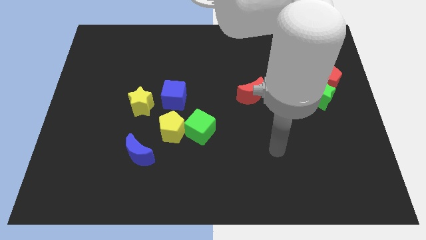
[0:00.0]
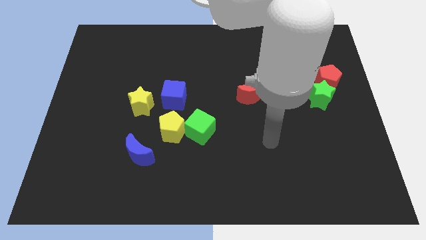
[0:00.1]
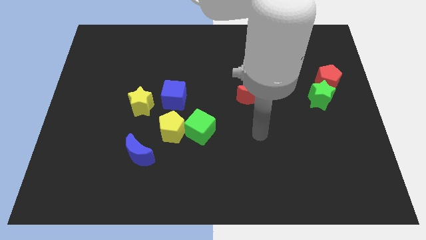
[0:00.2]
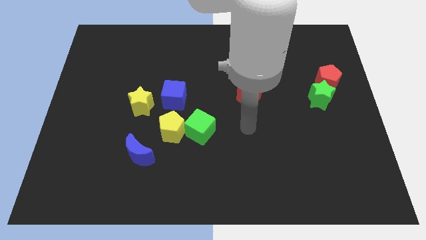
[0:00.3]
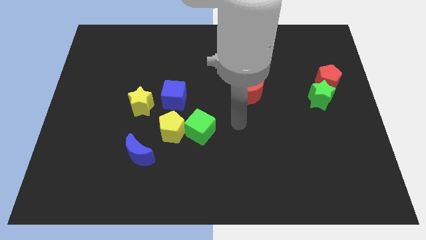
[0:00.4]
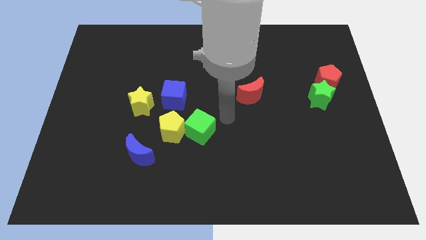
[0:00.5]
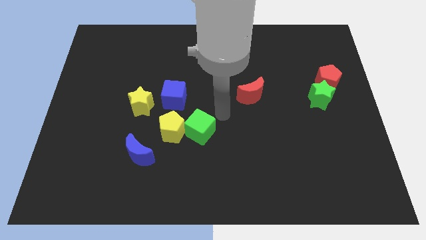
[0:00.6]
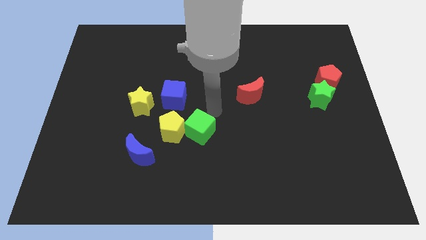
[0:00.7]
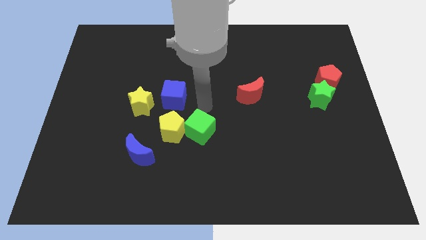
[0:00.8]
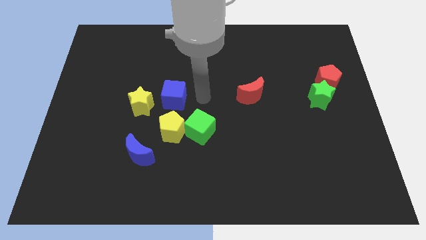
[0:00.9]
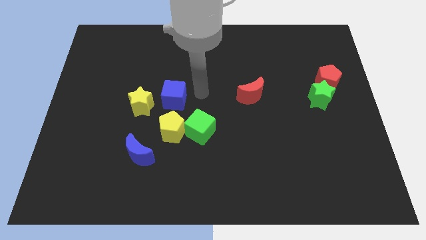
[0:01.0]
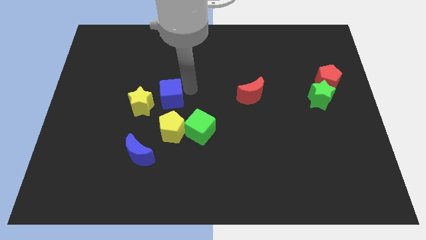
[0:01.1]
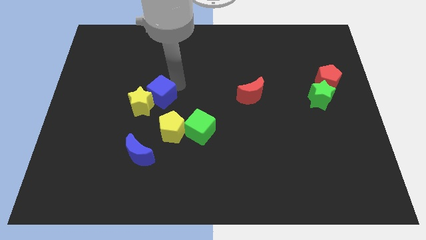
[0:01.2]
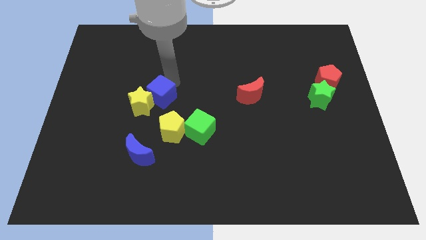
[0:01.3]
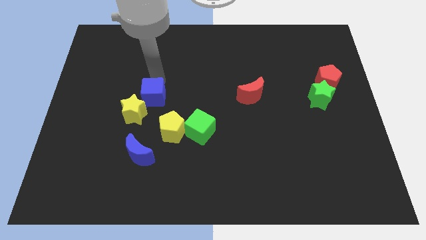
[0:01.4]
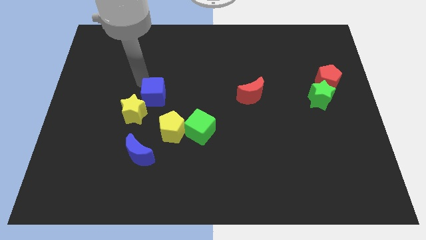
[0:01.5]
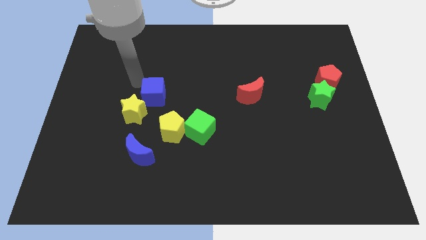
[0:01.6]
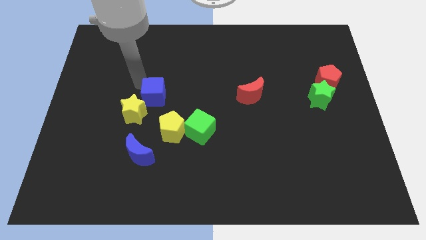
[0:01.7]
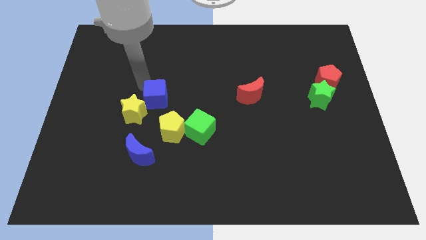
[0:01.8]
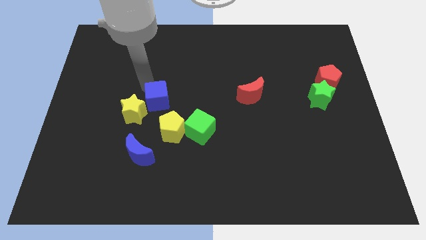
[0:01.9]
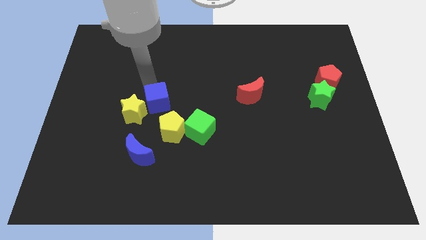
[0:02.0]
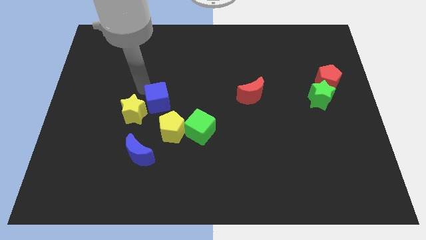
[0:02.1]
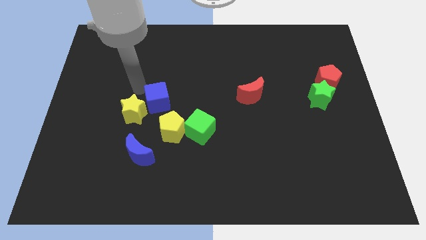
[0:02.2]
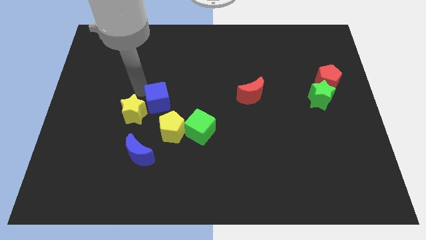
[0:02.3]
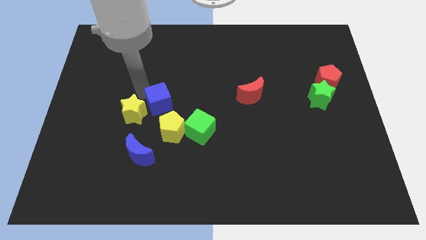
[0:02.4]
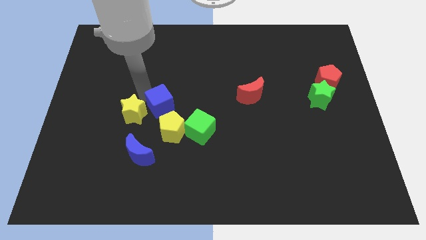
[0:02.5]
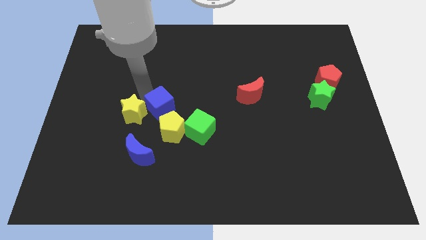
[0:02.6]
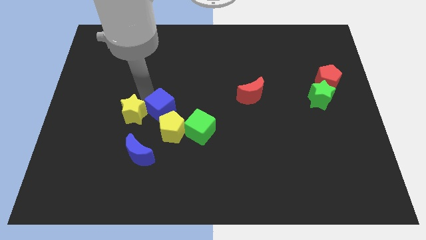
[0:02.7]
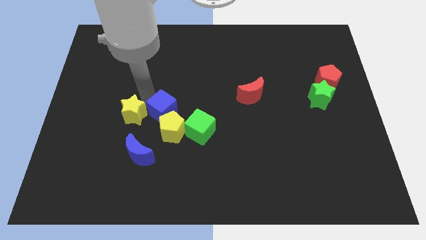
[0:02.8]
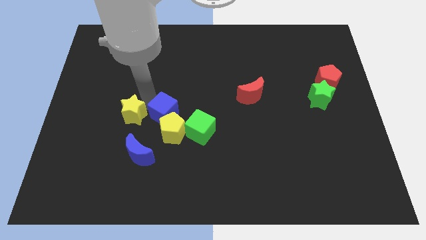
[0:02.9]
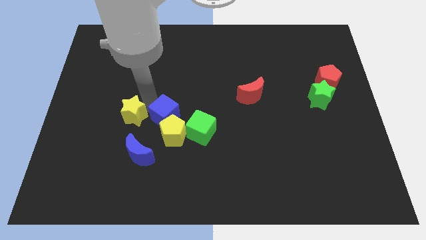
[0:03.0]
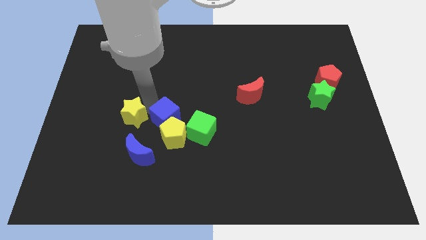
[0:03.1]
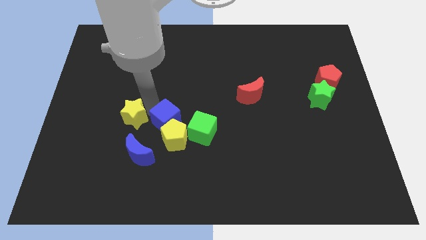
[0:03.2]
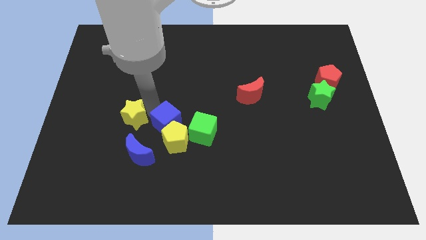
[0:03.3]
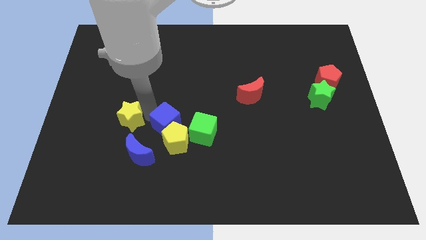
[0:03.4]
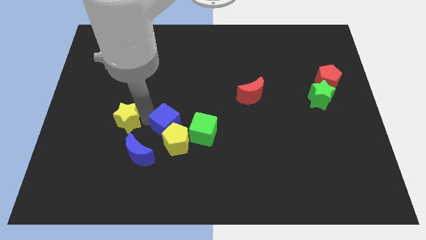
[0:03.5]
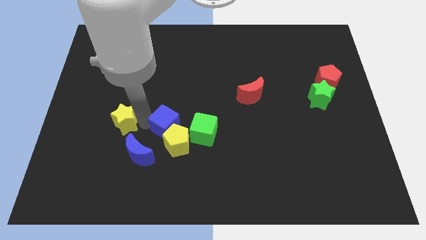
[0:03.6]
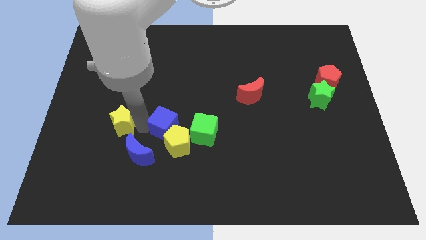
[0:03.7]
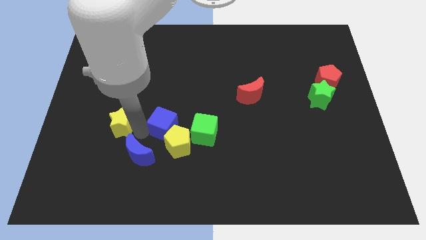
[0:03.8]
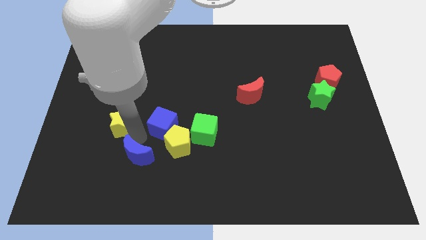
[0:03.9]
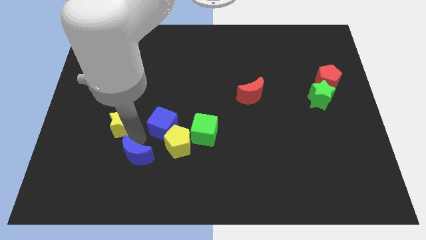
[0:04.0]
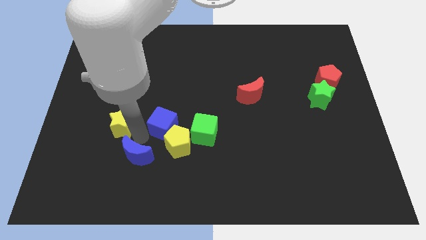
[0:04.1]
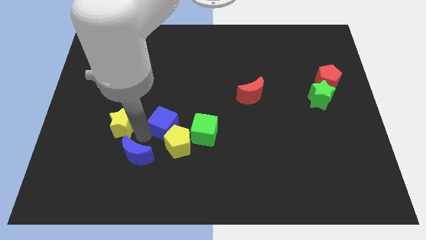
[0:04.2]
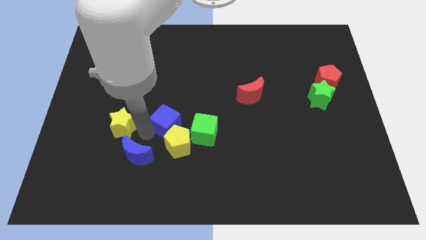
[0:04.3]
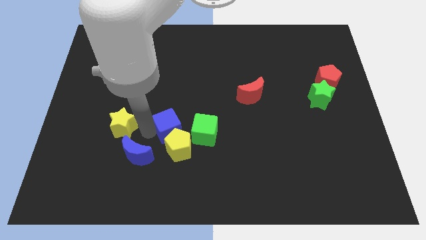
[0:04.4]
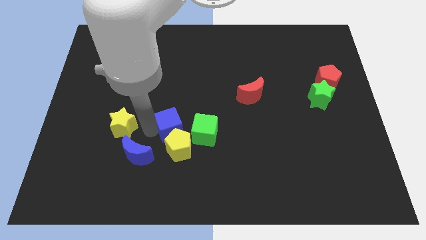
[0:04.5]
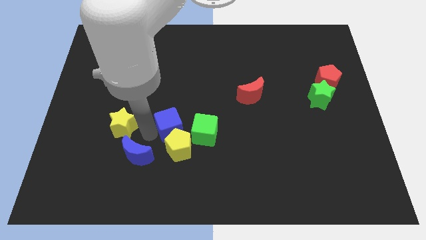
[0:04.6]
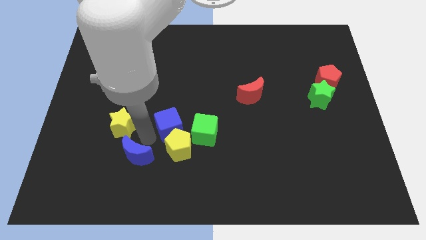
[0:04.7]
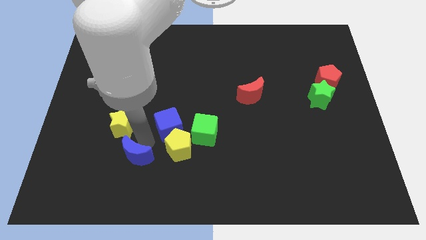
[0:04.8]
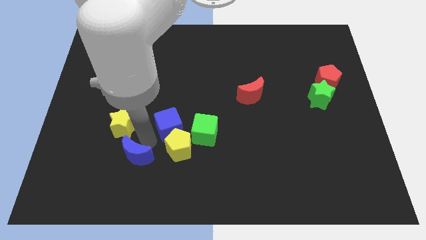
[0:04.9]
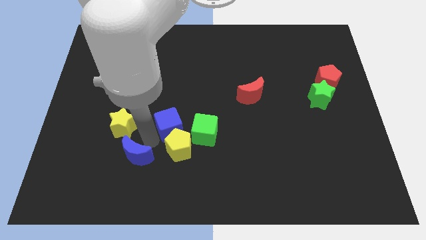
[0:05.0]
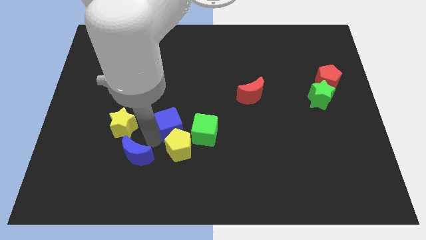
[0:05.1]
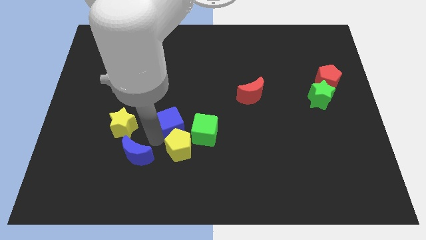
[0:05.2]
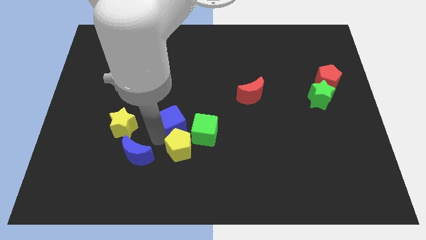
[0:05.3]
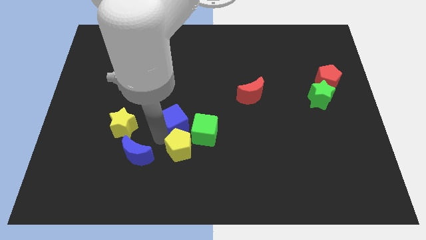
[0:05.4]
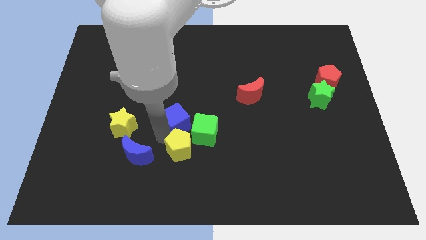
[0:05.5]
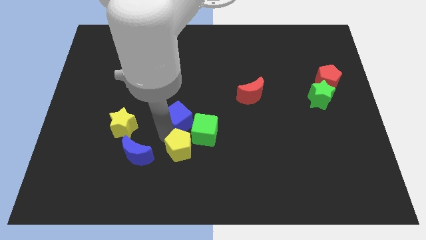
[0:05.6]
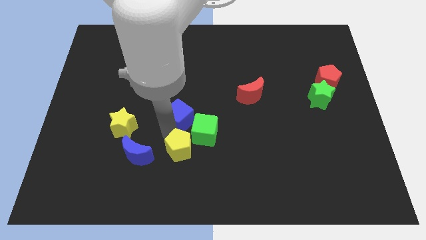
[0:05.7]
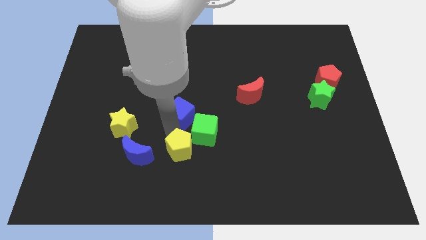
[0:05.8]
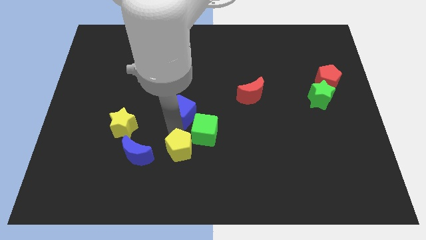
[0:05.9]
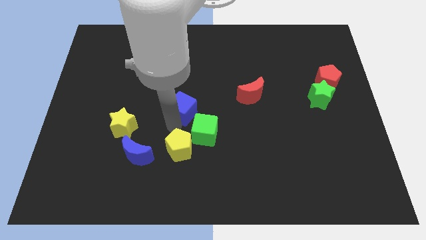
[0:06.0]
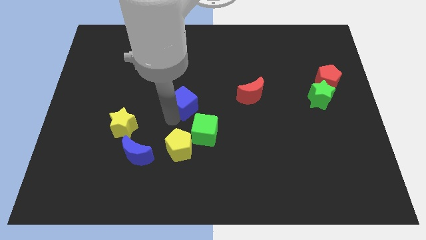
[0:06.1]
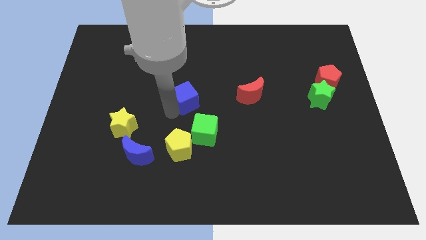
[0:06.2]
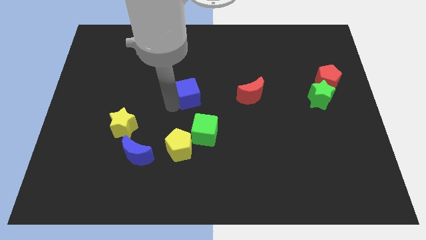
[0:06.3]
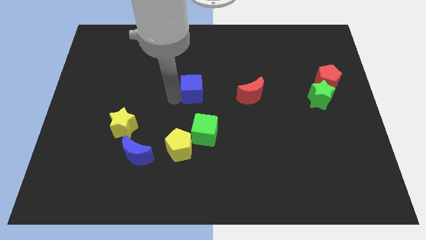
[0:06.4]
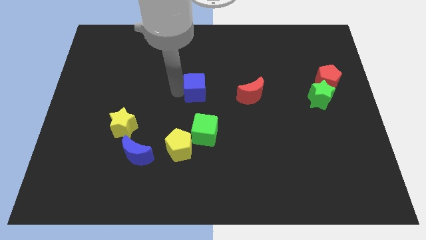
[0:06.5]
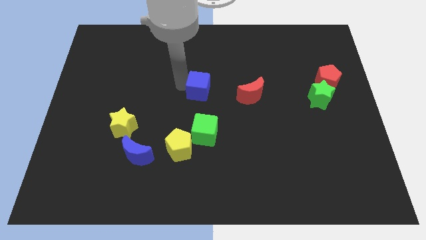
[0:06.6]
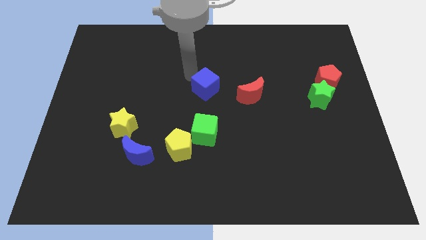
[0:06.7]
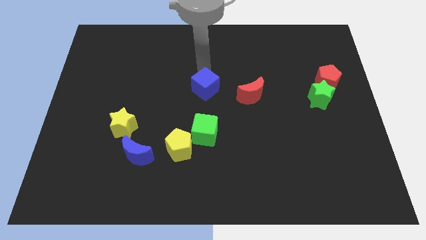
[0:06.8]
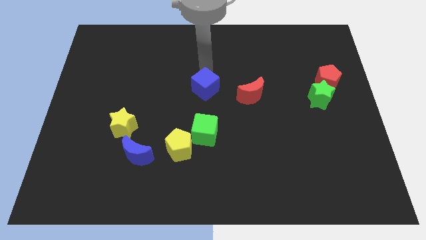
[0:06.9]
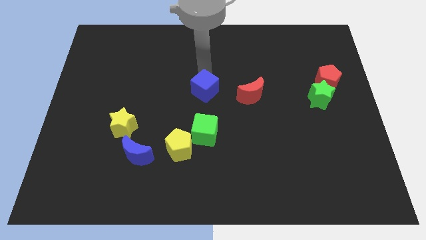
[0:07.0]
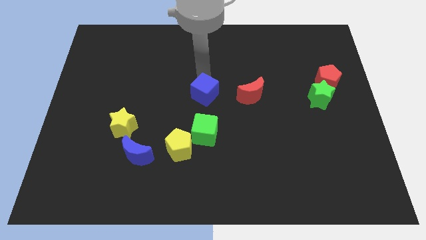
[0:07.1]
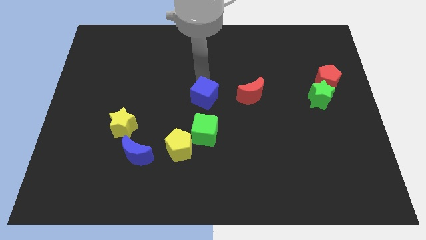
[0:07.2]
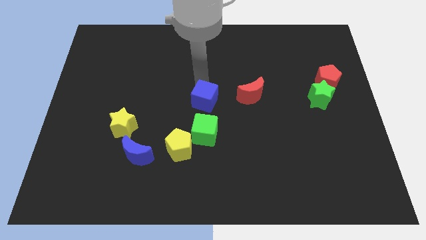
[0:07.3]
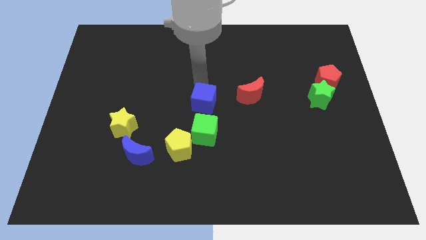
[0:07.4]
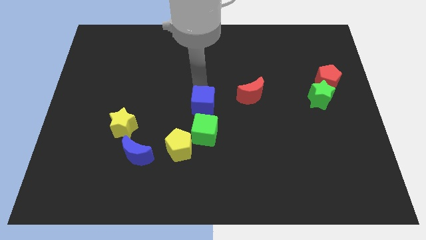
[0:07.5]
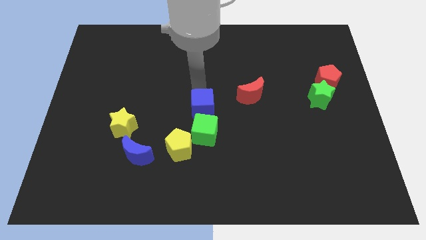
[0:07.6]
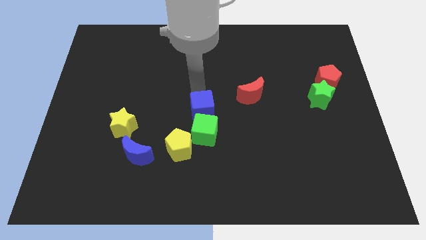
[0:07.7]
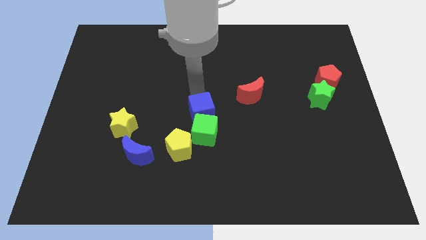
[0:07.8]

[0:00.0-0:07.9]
push the blue cube next to the green cube
